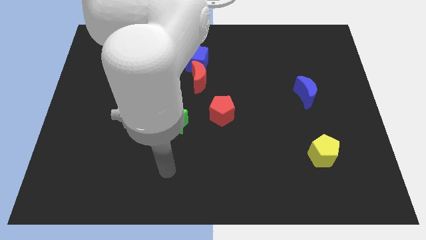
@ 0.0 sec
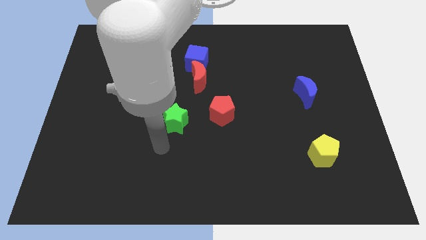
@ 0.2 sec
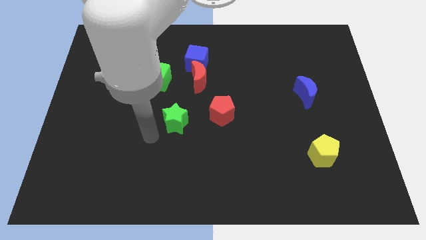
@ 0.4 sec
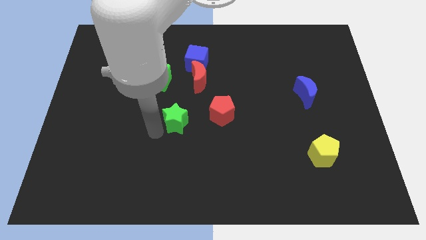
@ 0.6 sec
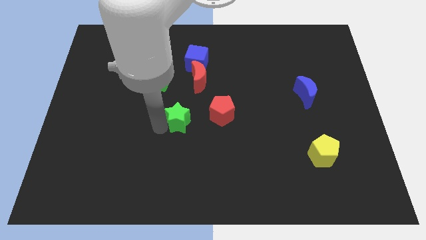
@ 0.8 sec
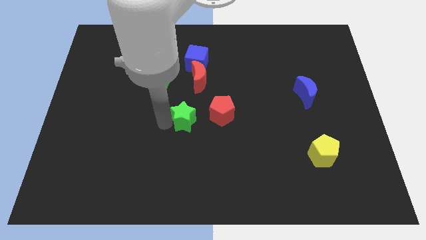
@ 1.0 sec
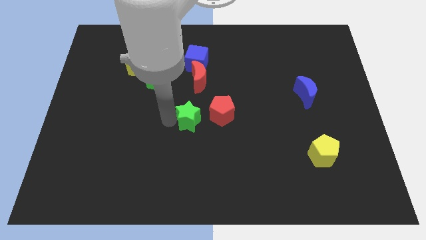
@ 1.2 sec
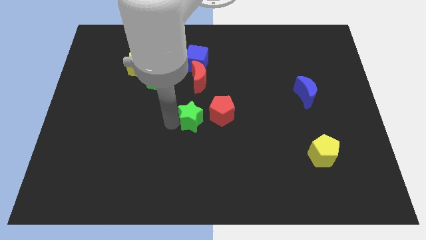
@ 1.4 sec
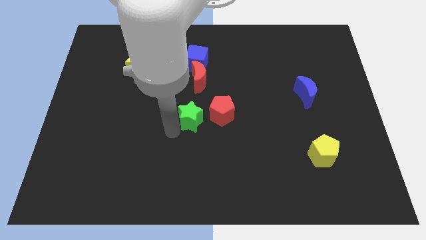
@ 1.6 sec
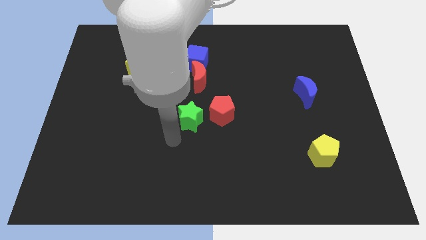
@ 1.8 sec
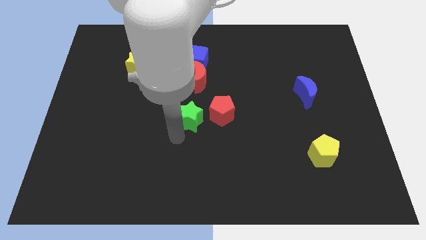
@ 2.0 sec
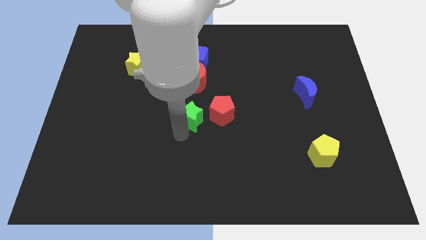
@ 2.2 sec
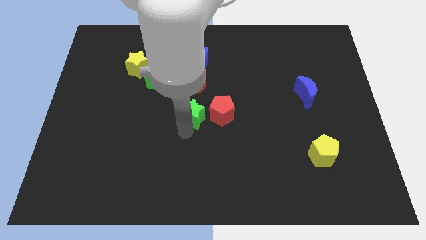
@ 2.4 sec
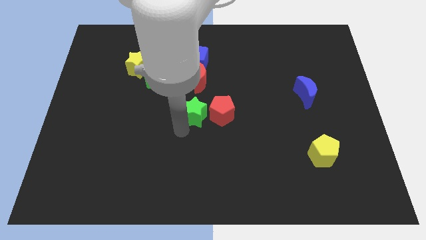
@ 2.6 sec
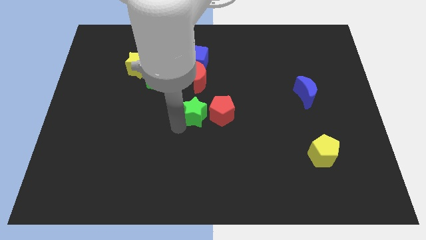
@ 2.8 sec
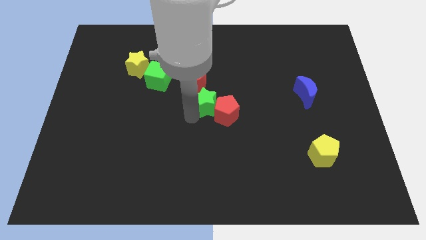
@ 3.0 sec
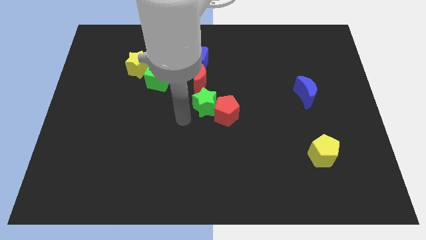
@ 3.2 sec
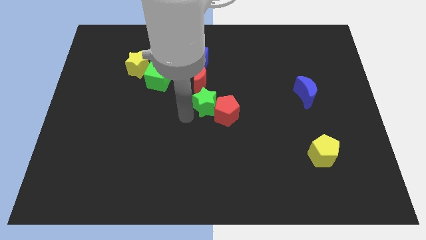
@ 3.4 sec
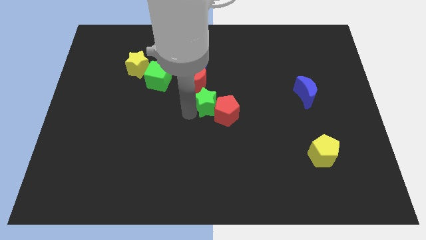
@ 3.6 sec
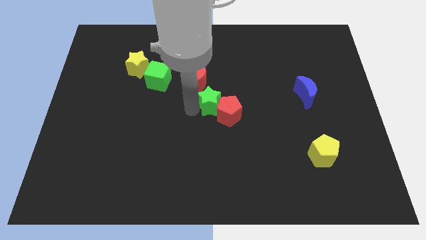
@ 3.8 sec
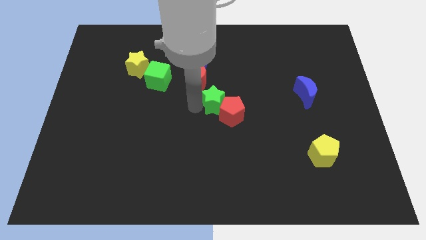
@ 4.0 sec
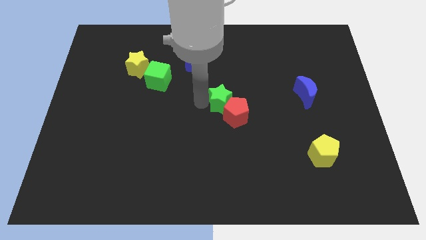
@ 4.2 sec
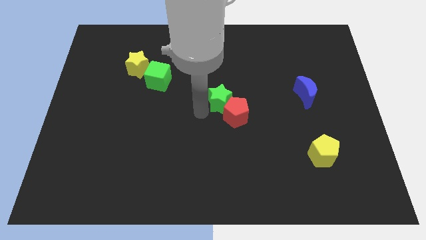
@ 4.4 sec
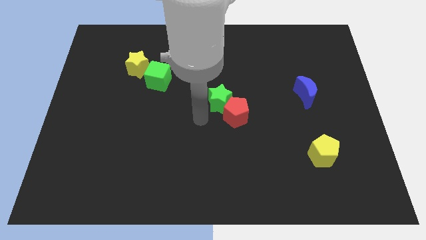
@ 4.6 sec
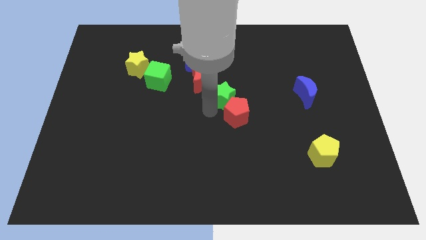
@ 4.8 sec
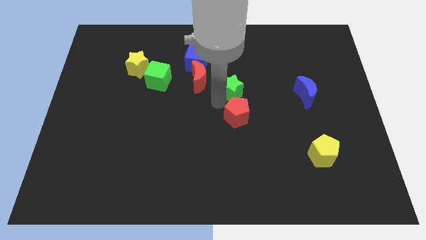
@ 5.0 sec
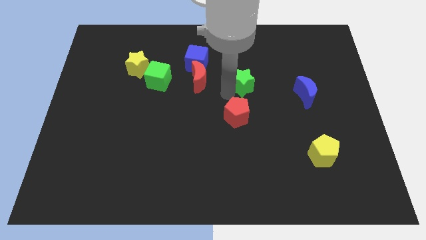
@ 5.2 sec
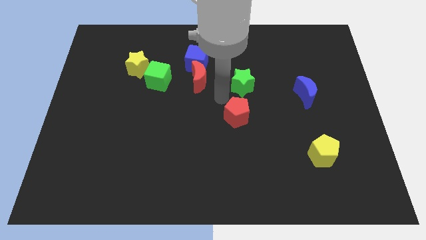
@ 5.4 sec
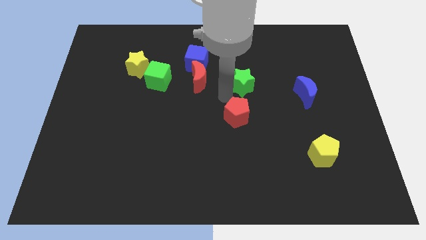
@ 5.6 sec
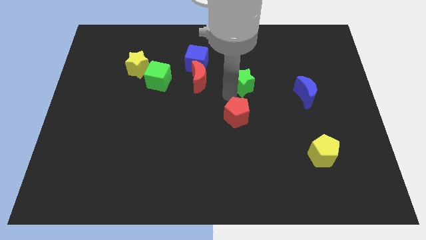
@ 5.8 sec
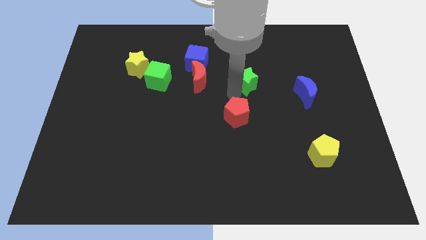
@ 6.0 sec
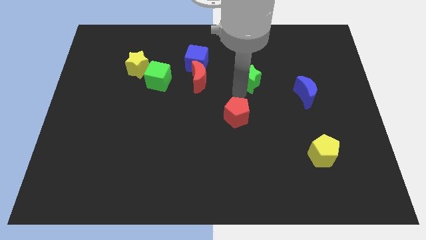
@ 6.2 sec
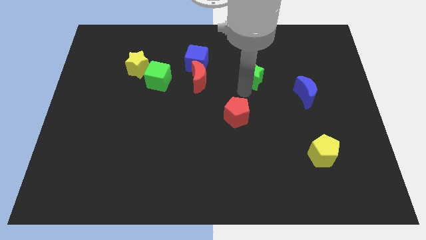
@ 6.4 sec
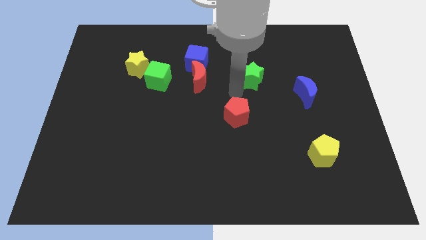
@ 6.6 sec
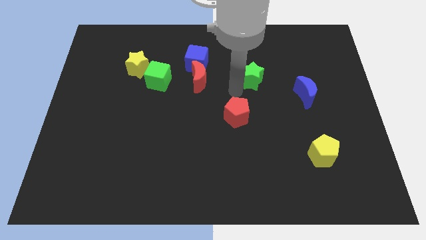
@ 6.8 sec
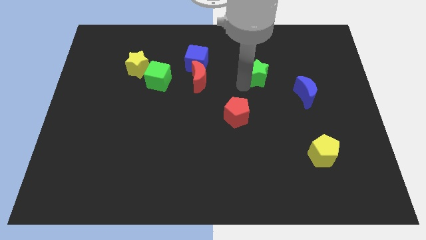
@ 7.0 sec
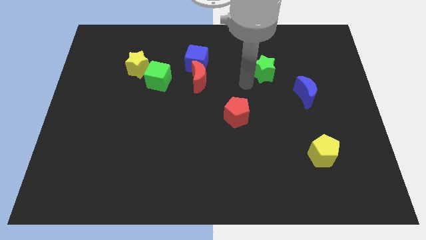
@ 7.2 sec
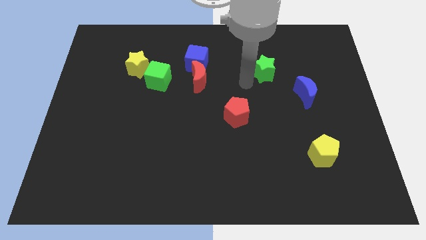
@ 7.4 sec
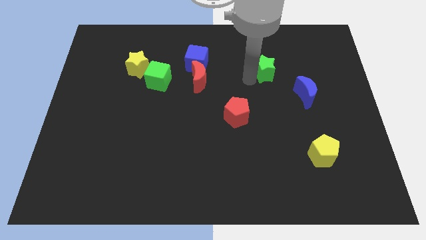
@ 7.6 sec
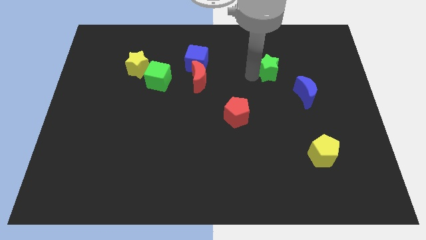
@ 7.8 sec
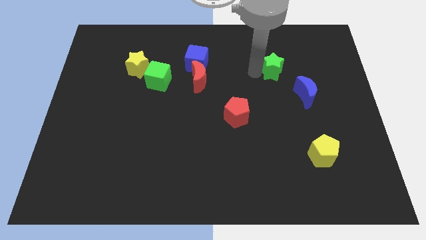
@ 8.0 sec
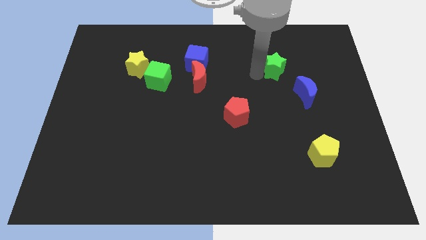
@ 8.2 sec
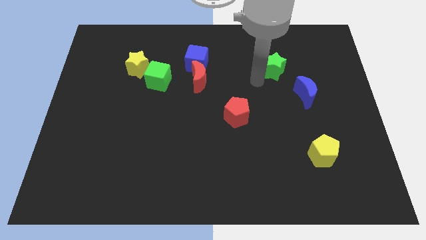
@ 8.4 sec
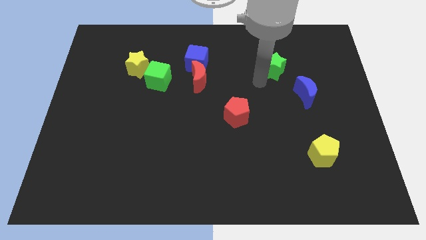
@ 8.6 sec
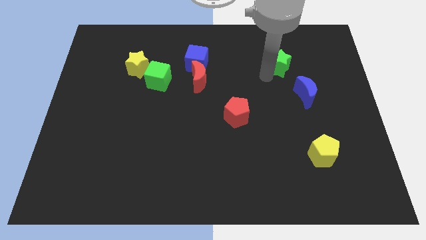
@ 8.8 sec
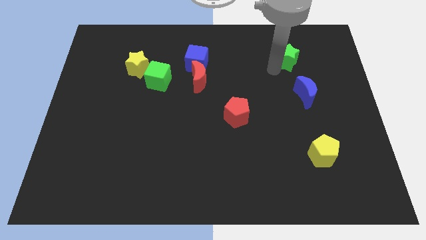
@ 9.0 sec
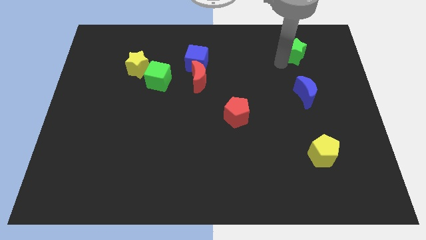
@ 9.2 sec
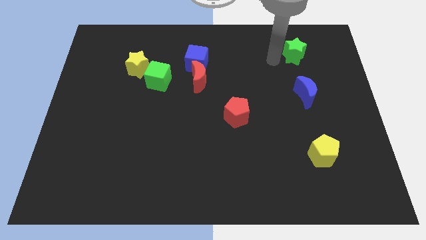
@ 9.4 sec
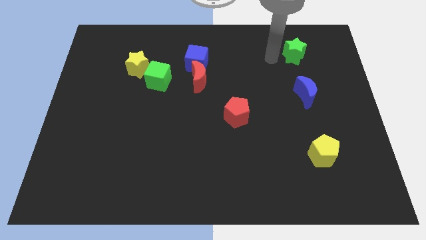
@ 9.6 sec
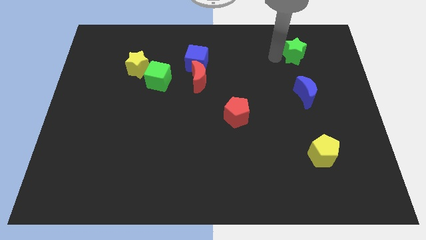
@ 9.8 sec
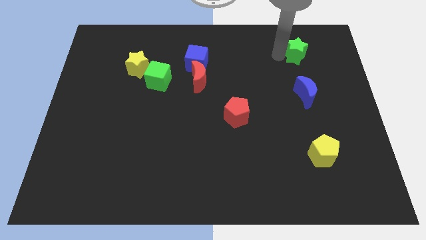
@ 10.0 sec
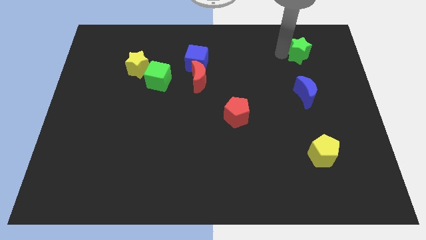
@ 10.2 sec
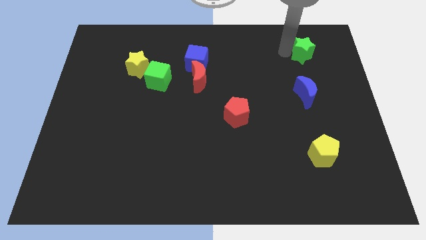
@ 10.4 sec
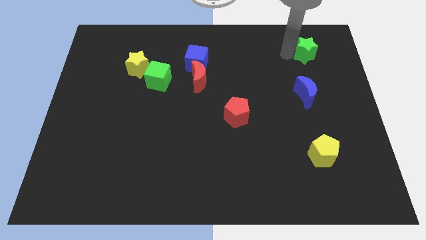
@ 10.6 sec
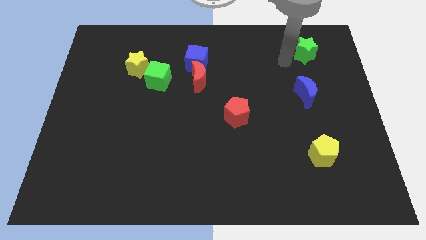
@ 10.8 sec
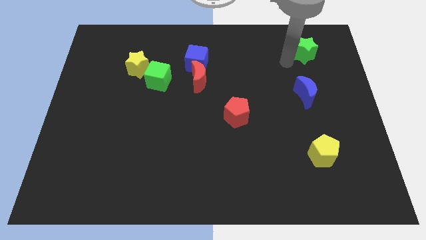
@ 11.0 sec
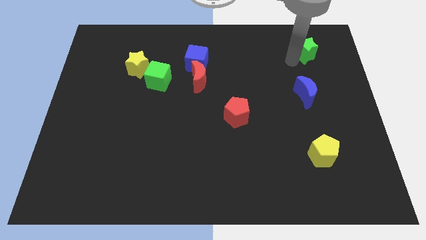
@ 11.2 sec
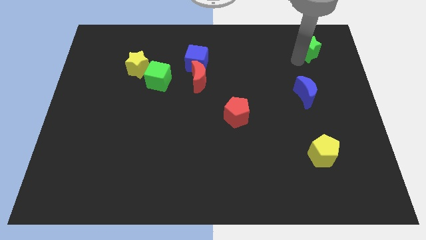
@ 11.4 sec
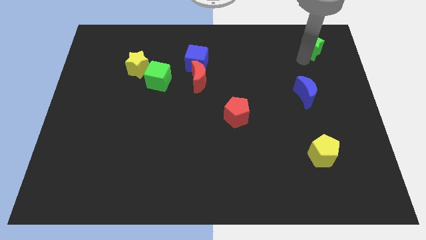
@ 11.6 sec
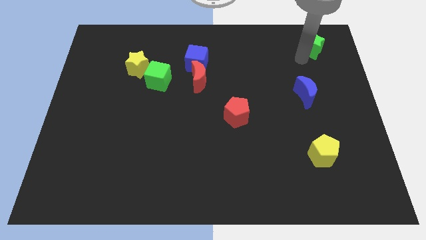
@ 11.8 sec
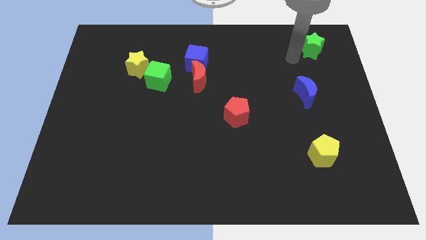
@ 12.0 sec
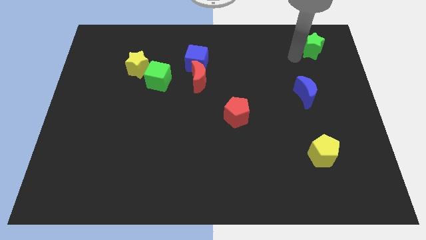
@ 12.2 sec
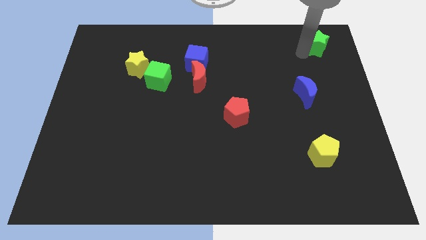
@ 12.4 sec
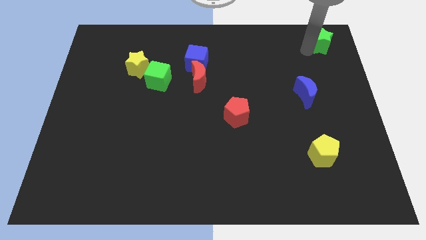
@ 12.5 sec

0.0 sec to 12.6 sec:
put the green star to the top right

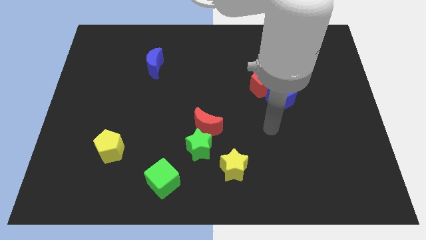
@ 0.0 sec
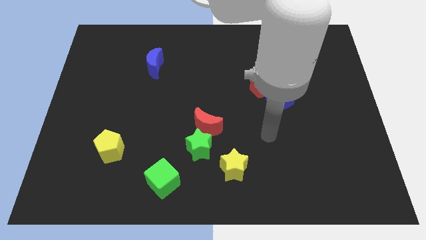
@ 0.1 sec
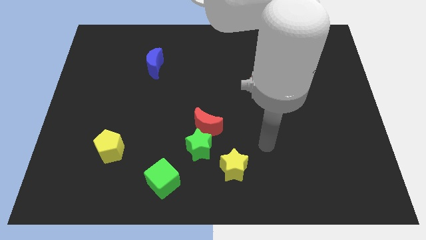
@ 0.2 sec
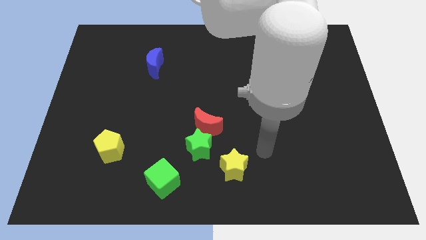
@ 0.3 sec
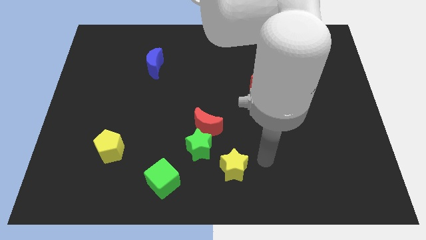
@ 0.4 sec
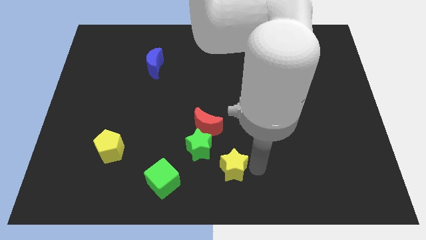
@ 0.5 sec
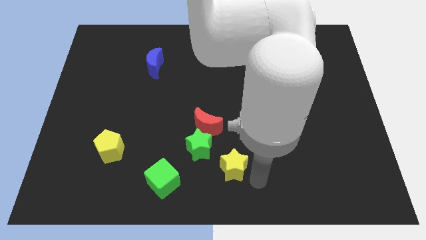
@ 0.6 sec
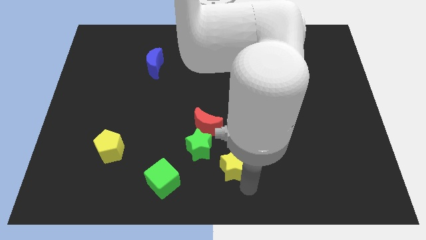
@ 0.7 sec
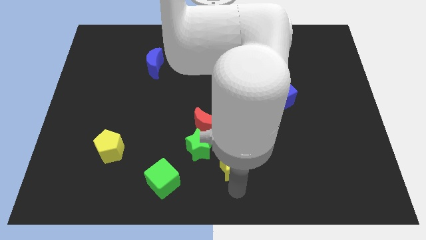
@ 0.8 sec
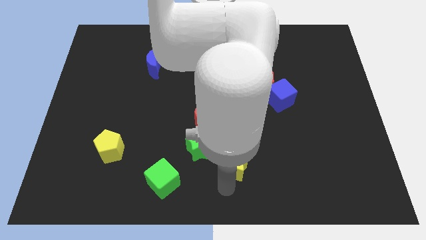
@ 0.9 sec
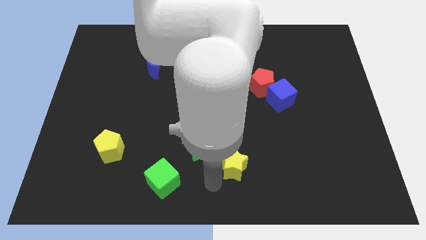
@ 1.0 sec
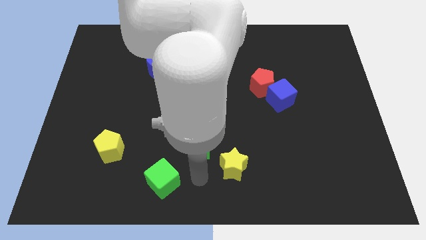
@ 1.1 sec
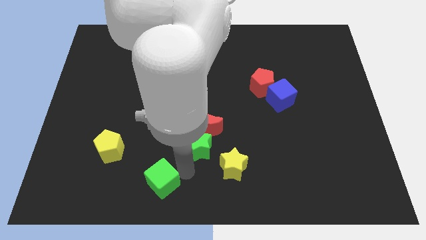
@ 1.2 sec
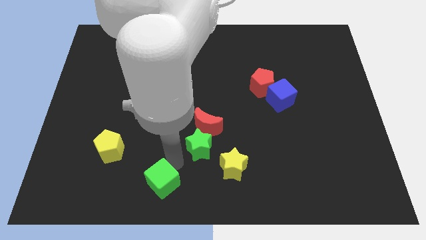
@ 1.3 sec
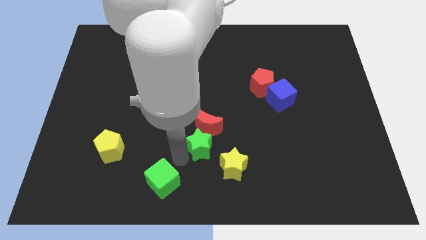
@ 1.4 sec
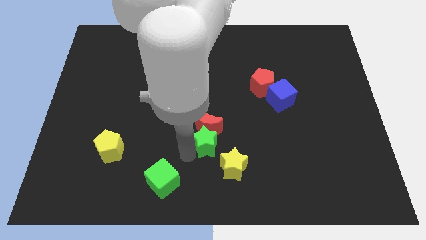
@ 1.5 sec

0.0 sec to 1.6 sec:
push the green star to the middle of the board
